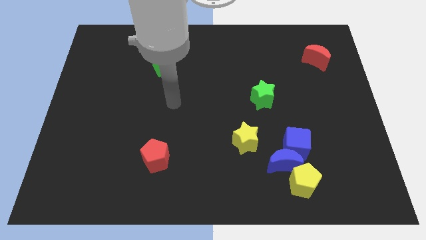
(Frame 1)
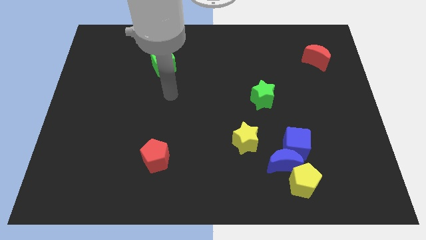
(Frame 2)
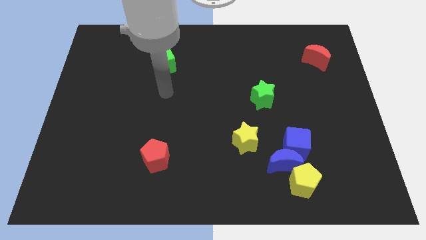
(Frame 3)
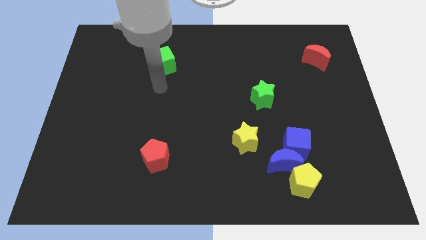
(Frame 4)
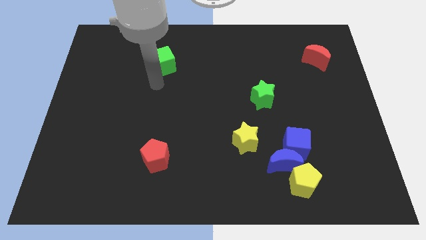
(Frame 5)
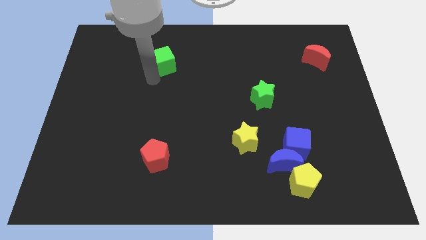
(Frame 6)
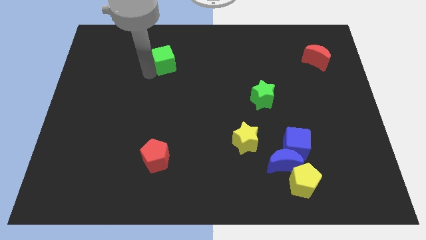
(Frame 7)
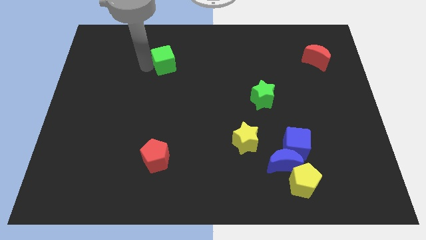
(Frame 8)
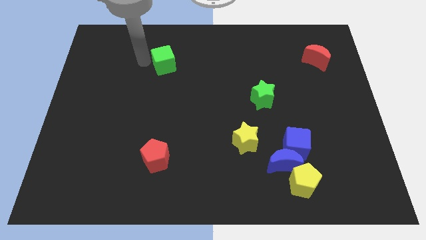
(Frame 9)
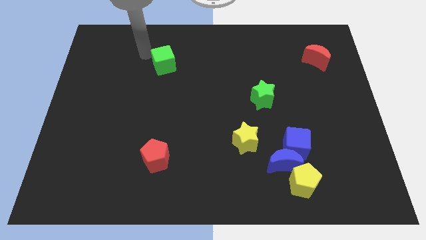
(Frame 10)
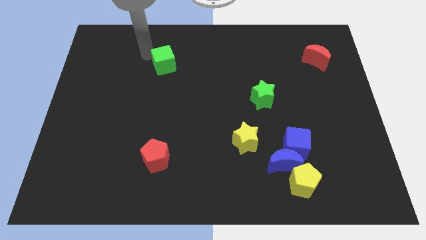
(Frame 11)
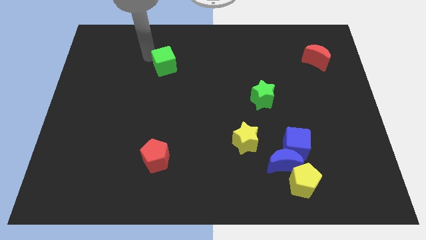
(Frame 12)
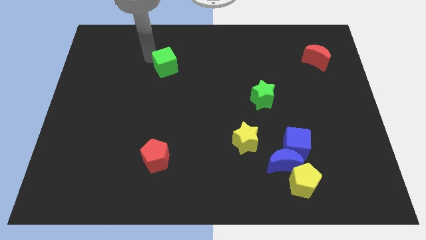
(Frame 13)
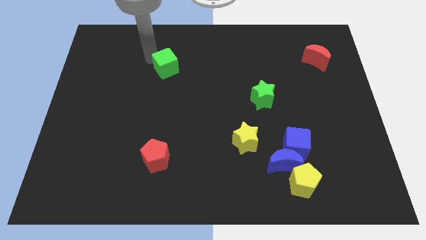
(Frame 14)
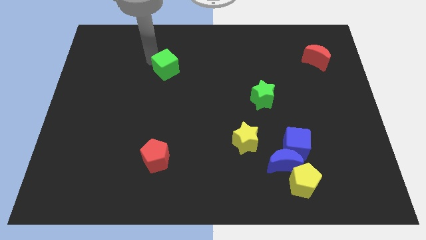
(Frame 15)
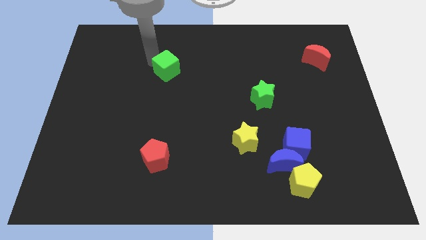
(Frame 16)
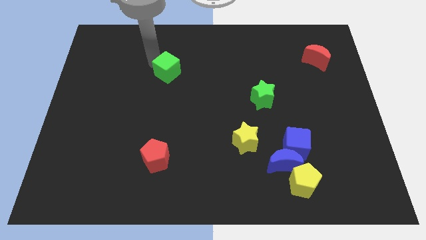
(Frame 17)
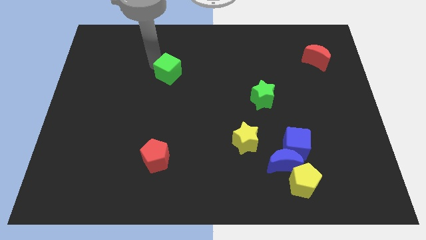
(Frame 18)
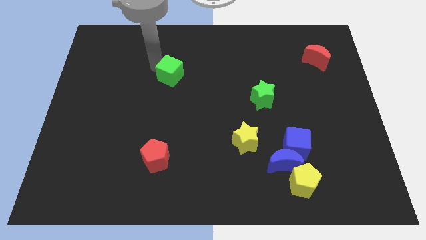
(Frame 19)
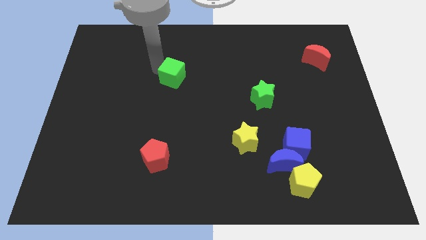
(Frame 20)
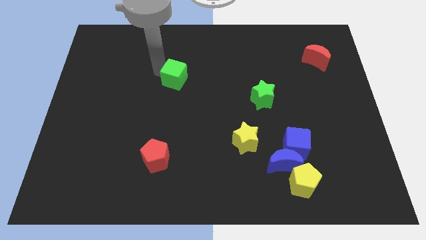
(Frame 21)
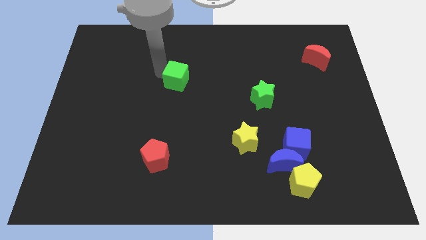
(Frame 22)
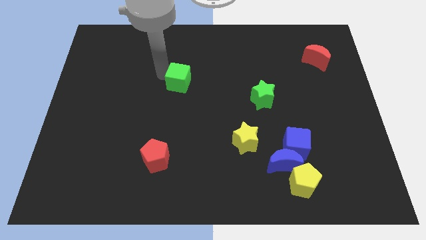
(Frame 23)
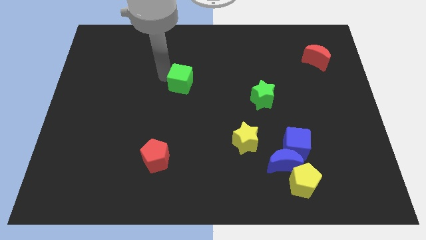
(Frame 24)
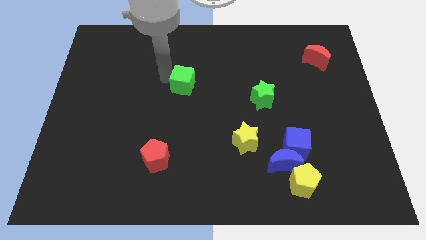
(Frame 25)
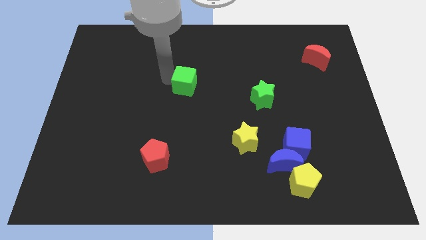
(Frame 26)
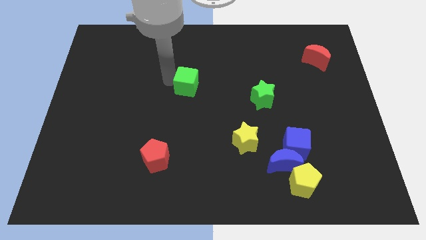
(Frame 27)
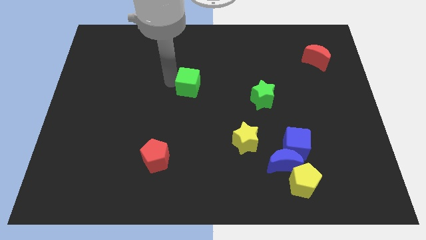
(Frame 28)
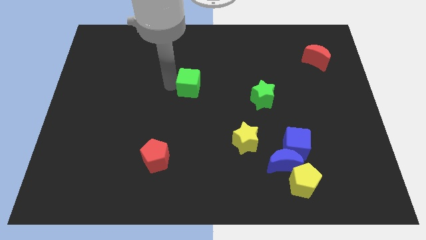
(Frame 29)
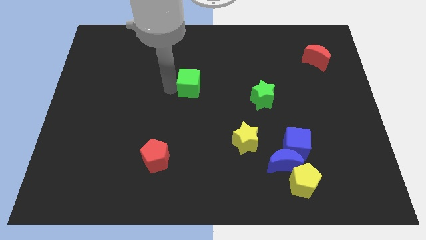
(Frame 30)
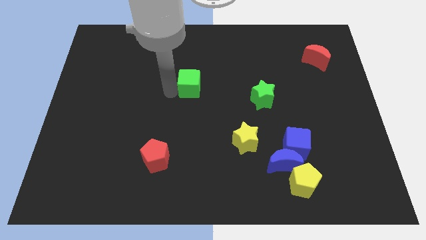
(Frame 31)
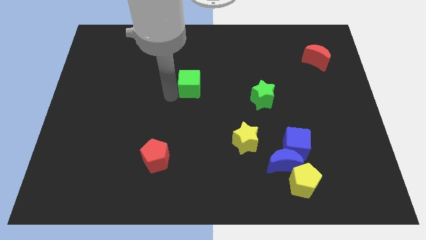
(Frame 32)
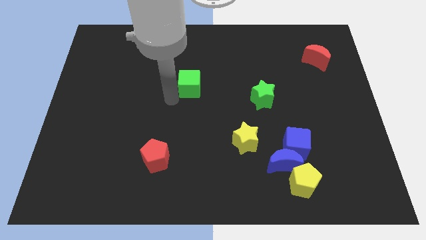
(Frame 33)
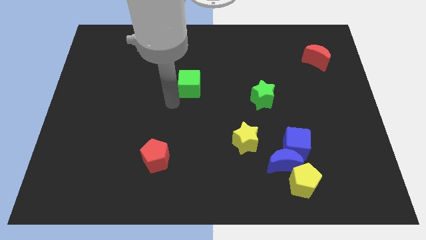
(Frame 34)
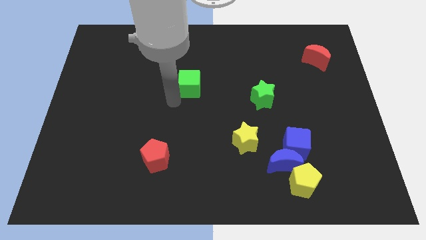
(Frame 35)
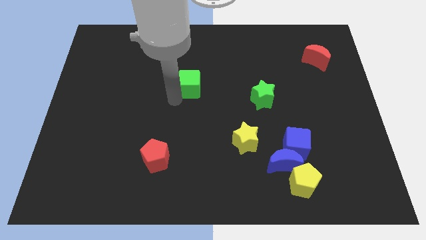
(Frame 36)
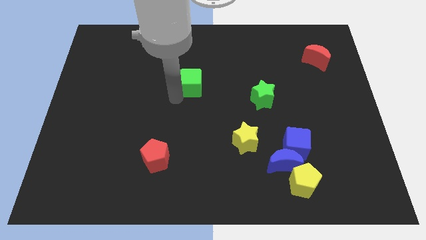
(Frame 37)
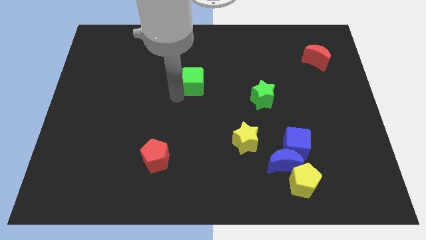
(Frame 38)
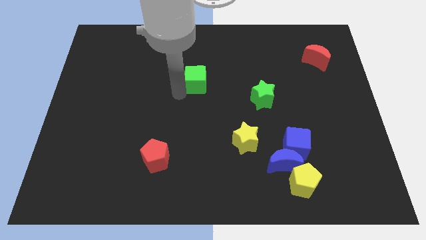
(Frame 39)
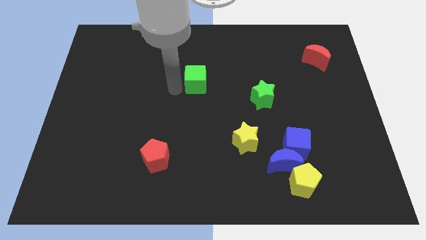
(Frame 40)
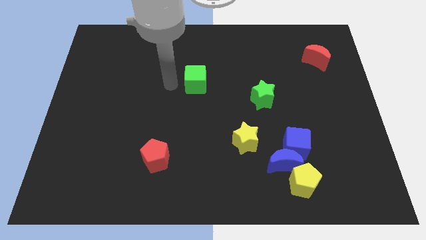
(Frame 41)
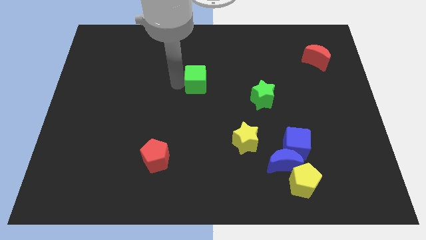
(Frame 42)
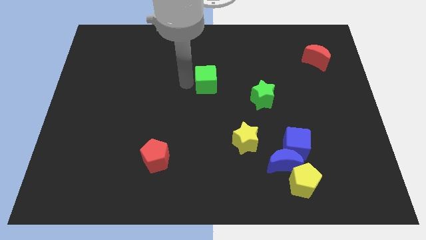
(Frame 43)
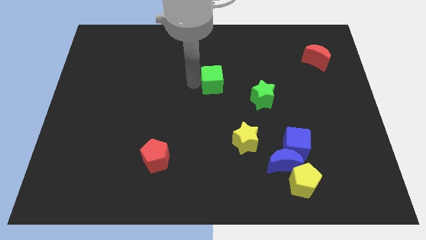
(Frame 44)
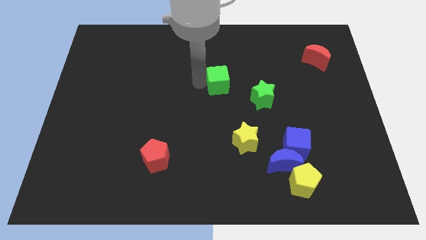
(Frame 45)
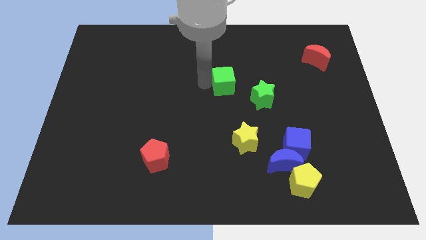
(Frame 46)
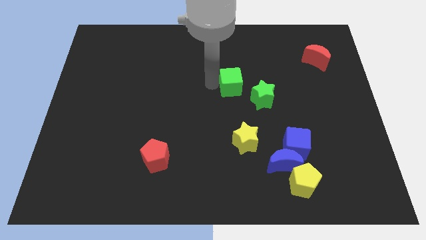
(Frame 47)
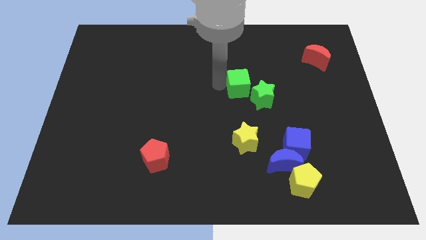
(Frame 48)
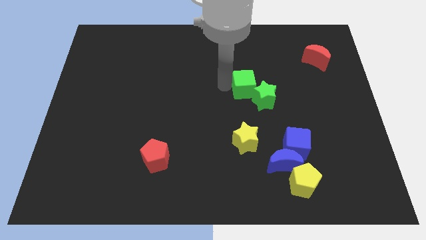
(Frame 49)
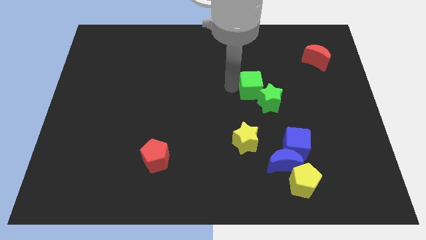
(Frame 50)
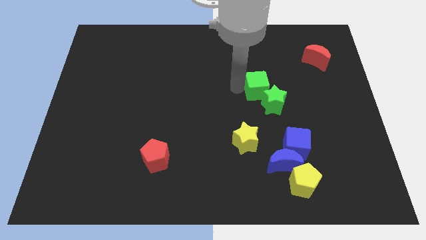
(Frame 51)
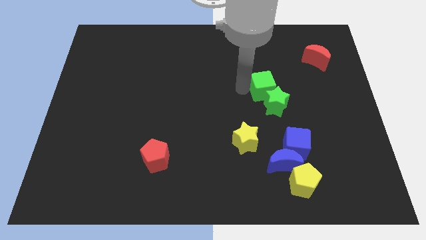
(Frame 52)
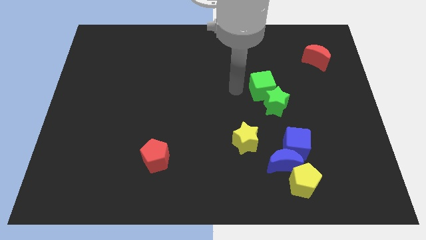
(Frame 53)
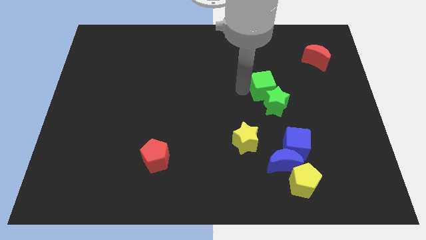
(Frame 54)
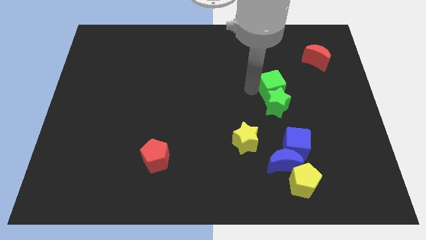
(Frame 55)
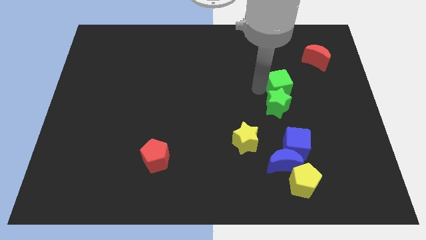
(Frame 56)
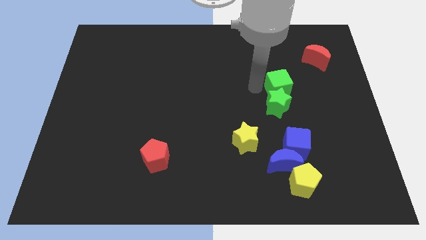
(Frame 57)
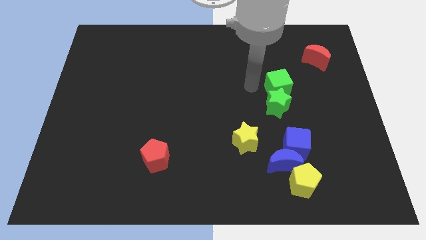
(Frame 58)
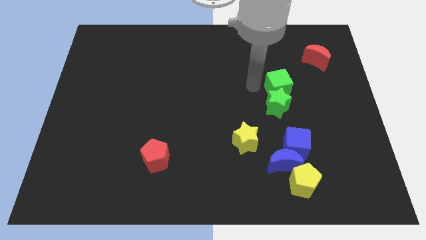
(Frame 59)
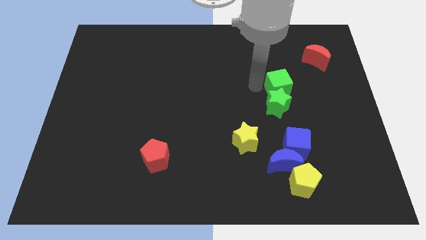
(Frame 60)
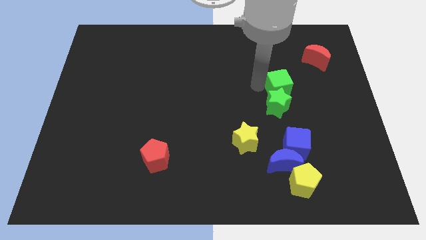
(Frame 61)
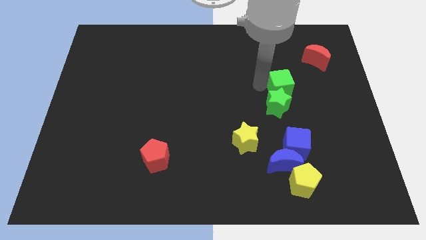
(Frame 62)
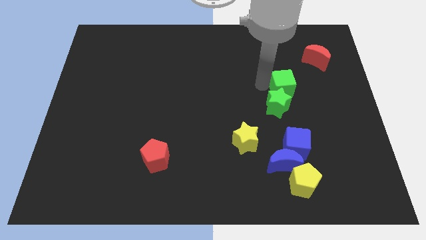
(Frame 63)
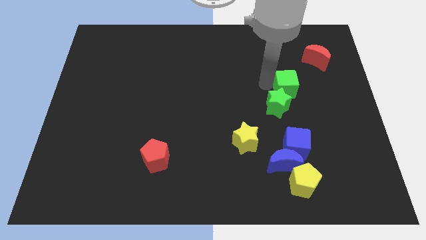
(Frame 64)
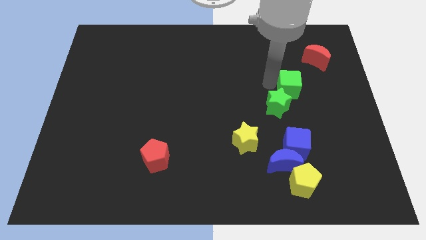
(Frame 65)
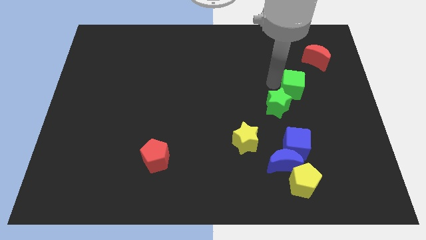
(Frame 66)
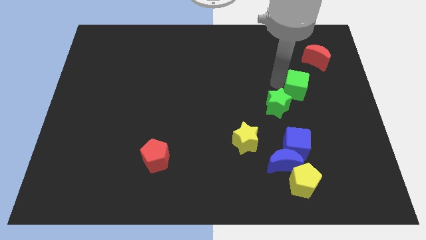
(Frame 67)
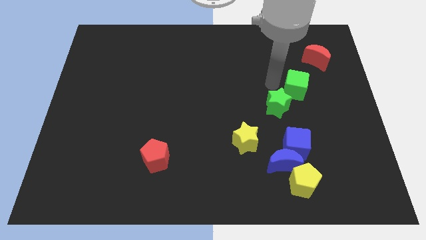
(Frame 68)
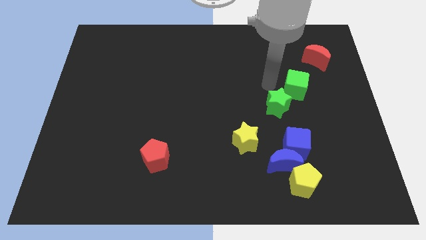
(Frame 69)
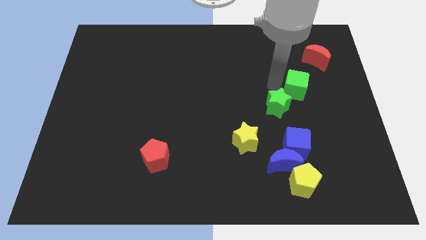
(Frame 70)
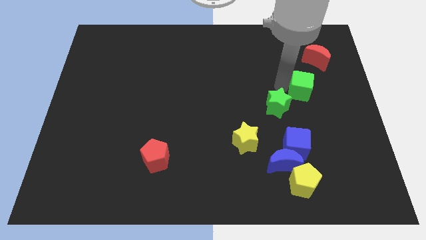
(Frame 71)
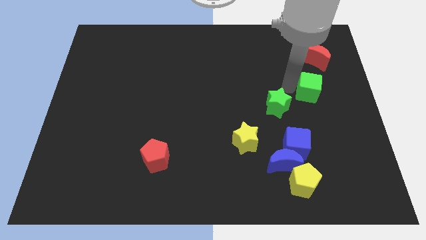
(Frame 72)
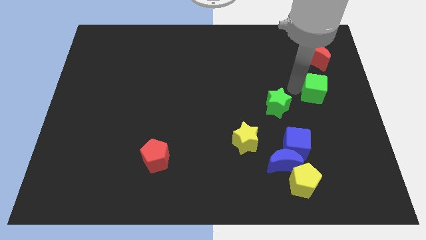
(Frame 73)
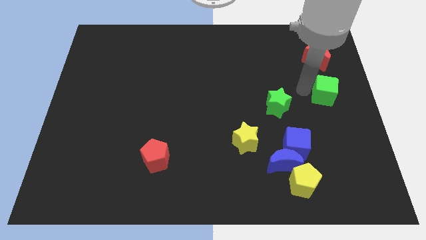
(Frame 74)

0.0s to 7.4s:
push the green cube to the right side of the board
